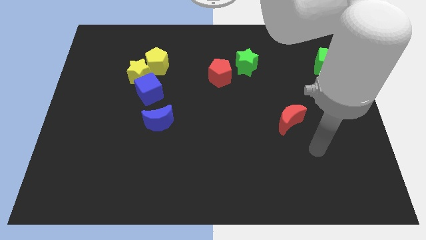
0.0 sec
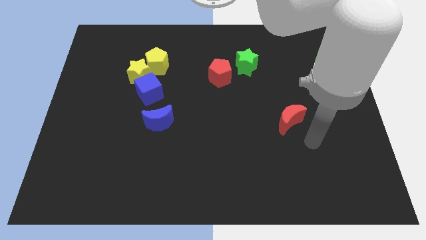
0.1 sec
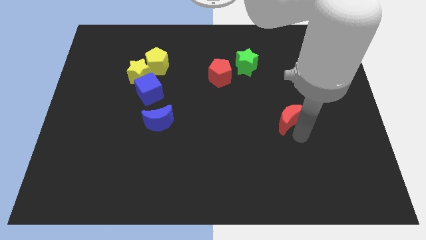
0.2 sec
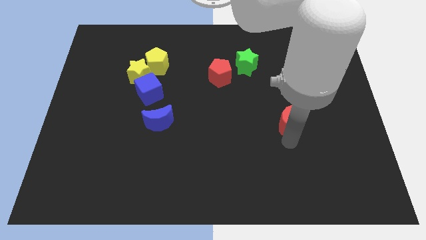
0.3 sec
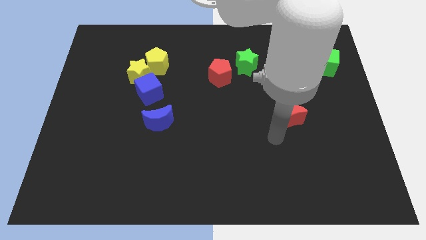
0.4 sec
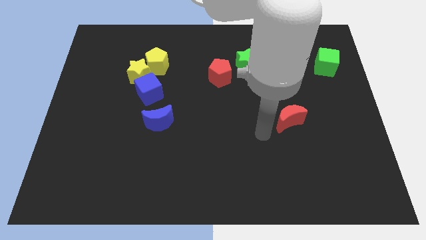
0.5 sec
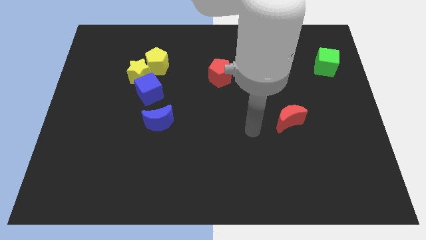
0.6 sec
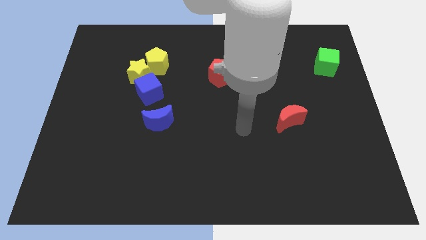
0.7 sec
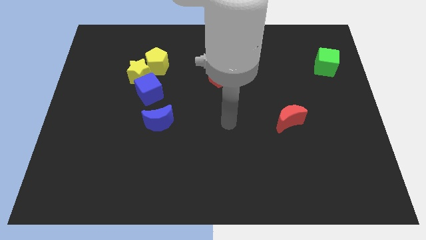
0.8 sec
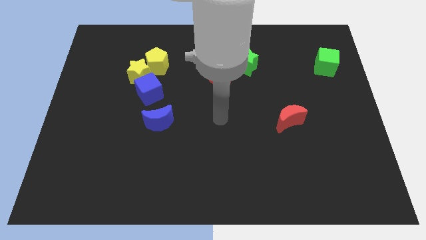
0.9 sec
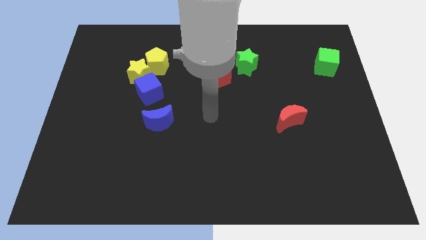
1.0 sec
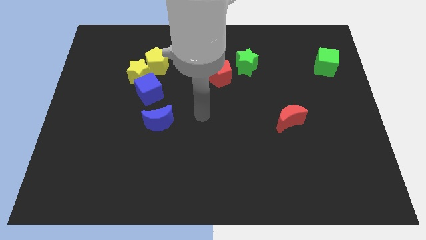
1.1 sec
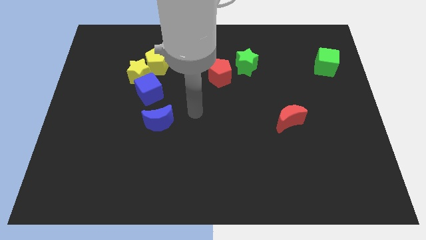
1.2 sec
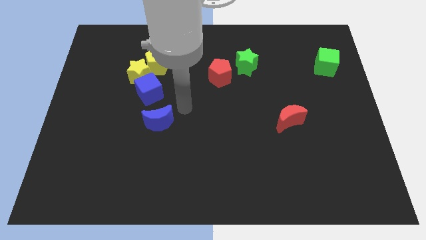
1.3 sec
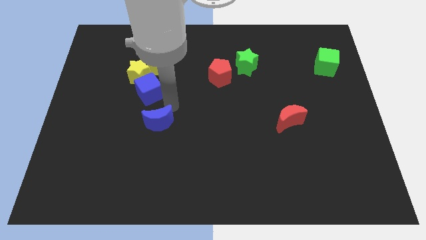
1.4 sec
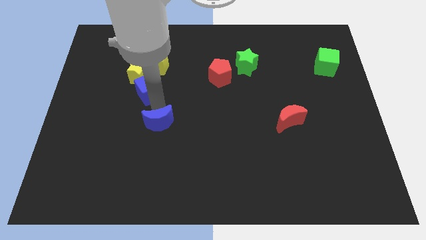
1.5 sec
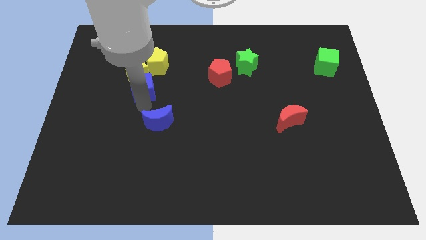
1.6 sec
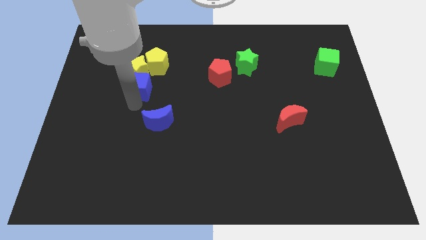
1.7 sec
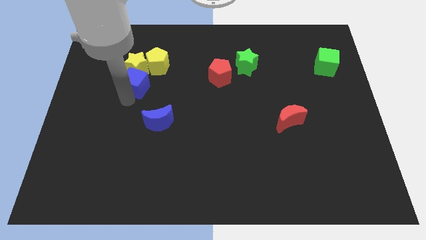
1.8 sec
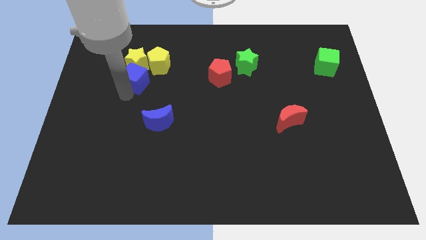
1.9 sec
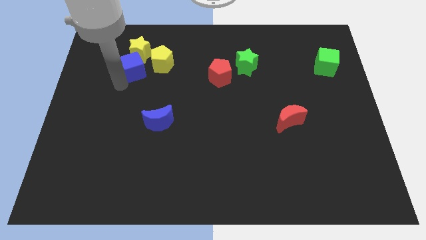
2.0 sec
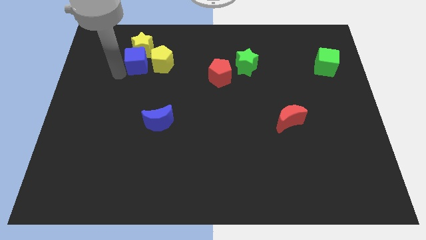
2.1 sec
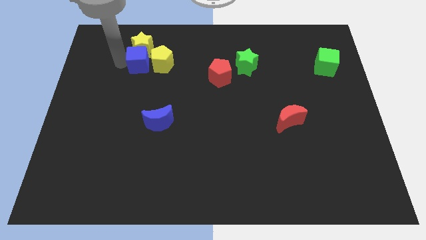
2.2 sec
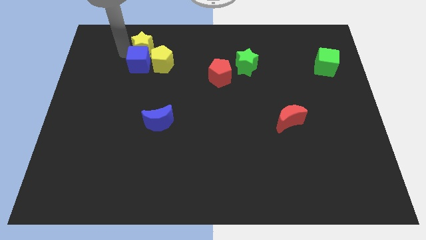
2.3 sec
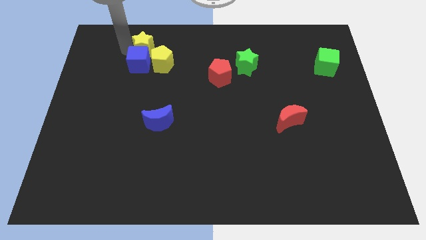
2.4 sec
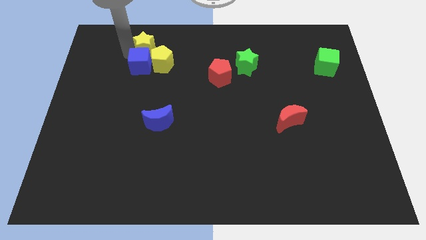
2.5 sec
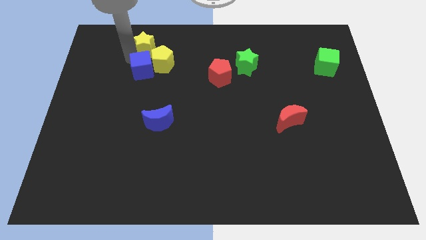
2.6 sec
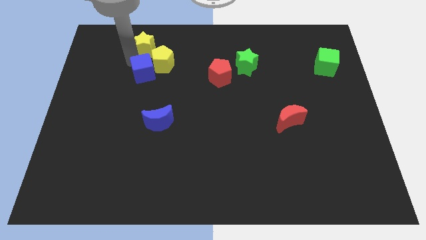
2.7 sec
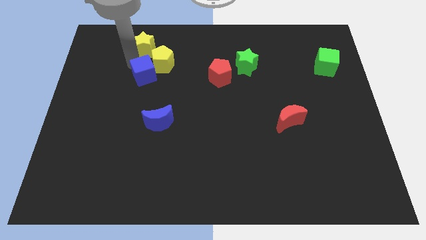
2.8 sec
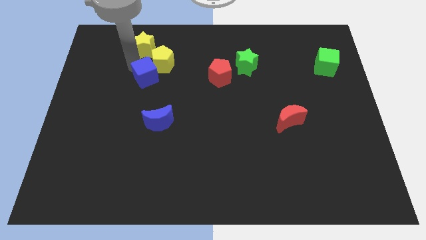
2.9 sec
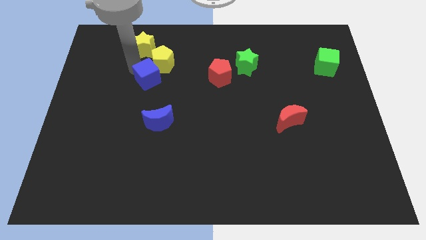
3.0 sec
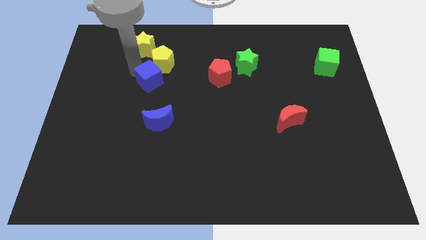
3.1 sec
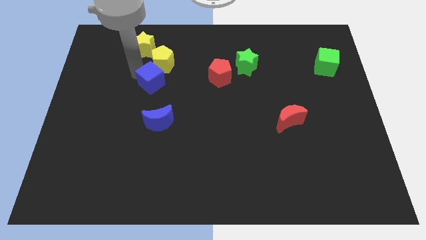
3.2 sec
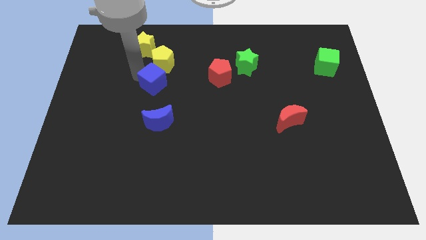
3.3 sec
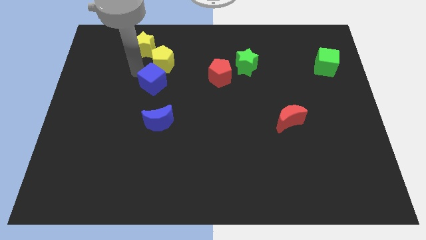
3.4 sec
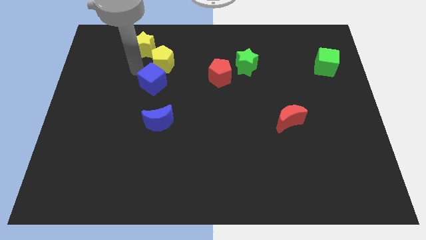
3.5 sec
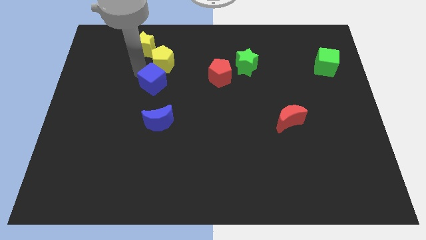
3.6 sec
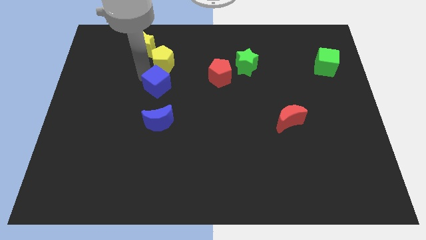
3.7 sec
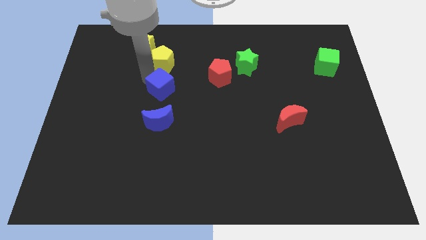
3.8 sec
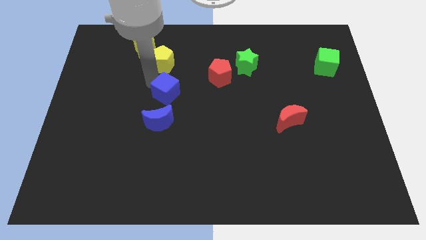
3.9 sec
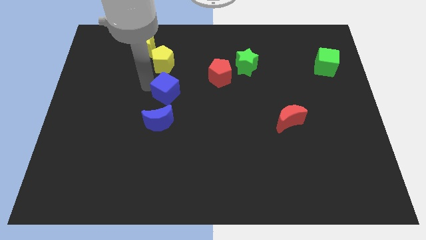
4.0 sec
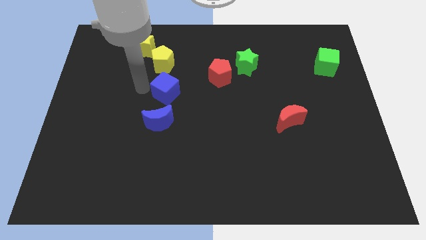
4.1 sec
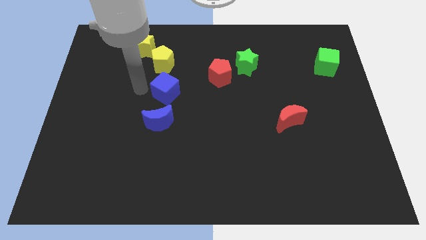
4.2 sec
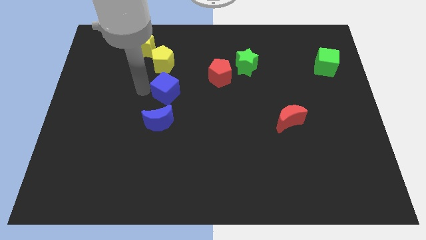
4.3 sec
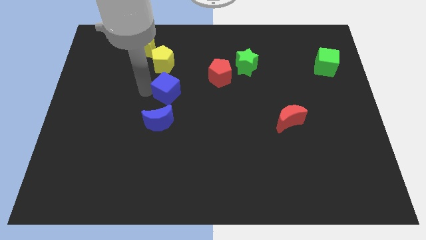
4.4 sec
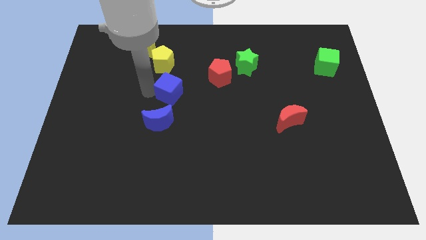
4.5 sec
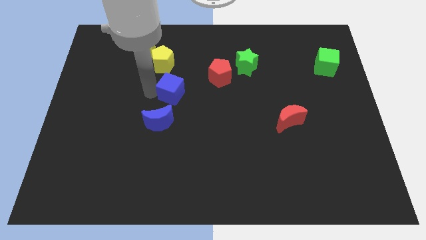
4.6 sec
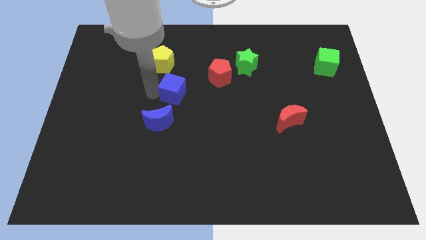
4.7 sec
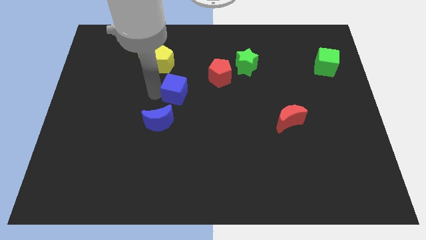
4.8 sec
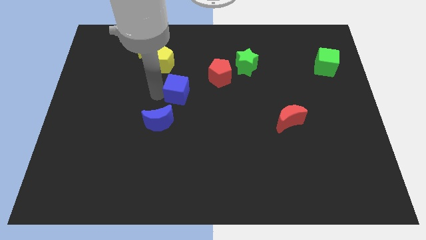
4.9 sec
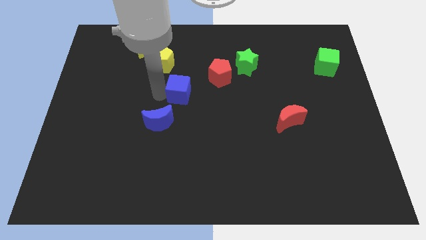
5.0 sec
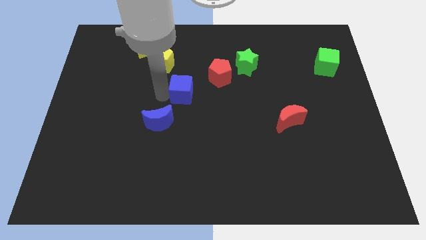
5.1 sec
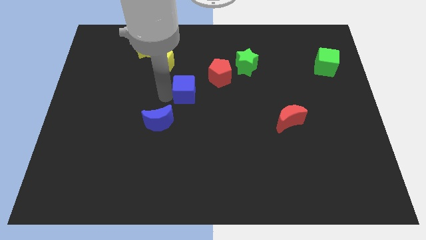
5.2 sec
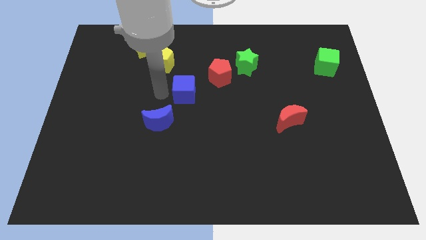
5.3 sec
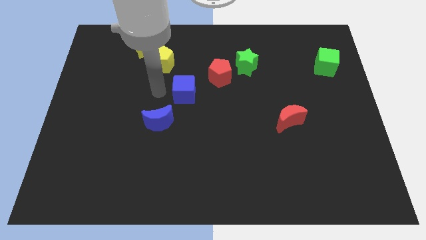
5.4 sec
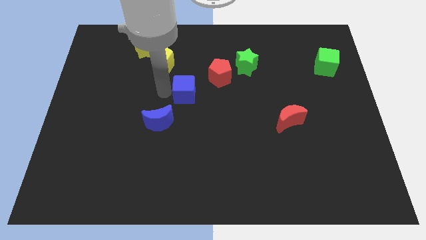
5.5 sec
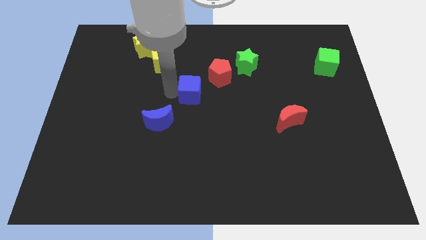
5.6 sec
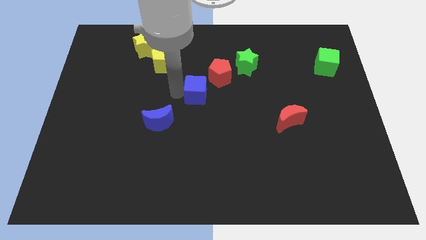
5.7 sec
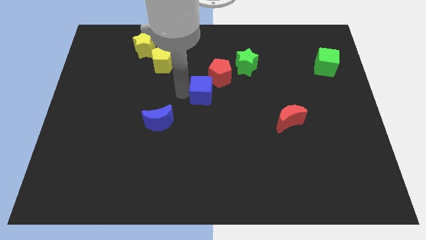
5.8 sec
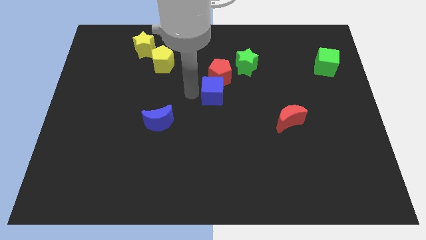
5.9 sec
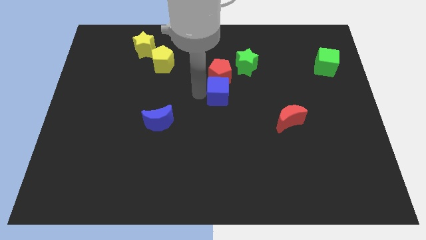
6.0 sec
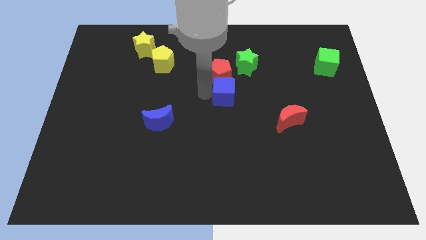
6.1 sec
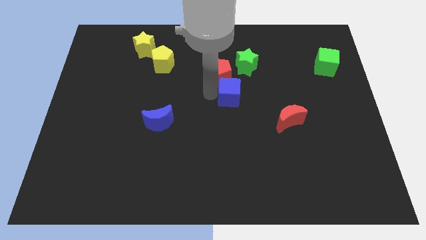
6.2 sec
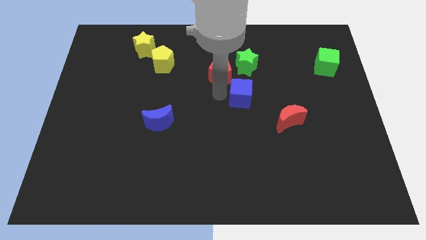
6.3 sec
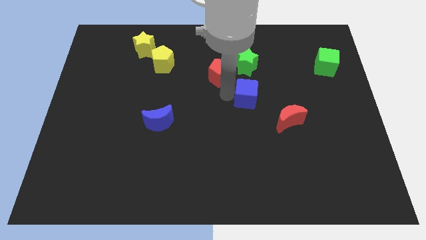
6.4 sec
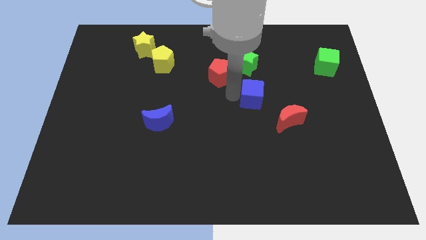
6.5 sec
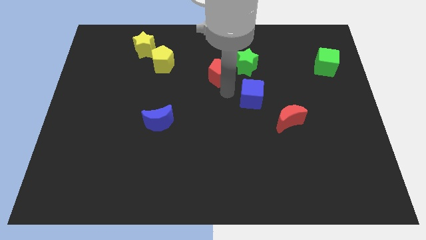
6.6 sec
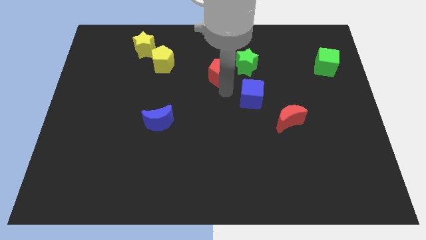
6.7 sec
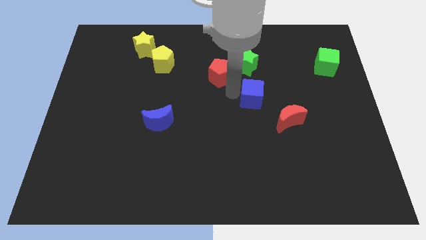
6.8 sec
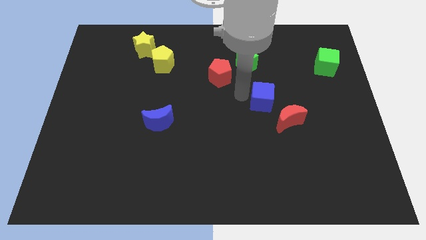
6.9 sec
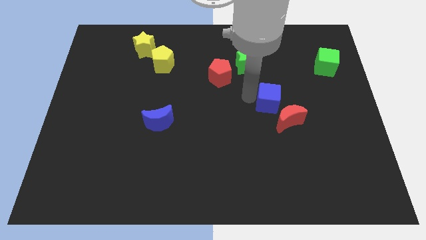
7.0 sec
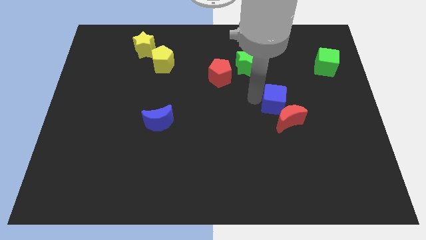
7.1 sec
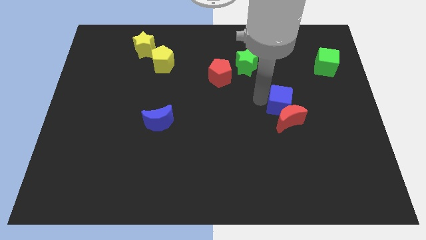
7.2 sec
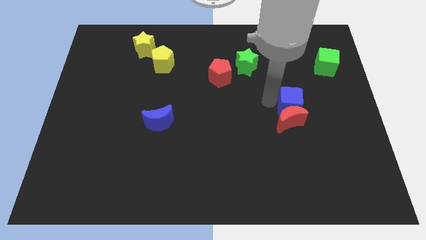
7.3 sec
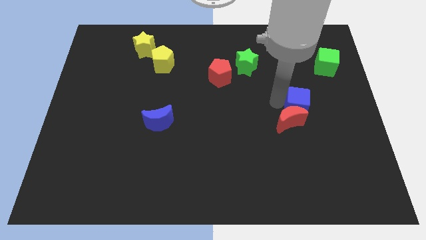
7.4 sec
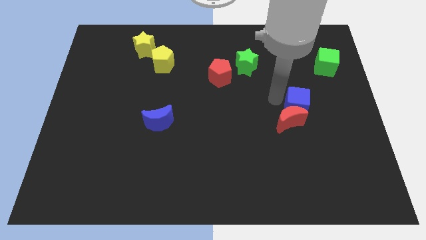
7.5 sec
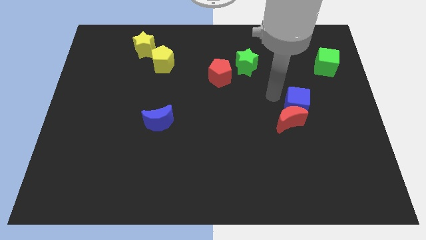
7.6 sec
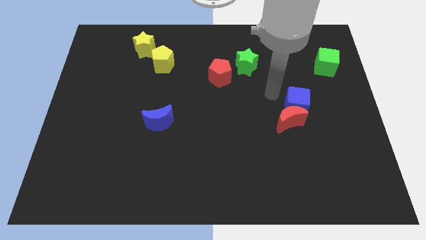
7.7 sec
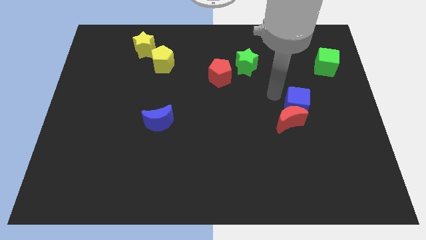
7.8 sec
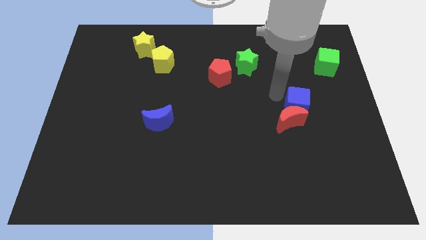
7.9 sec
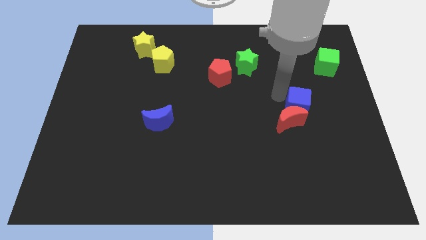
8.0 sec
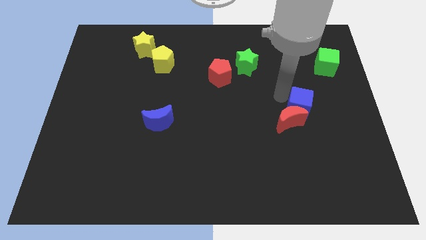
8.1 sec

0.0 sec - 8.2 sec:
put the blue cube right of the red moon
